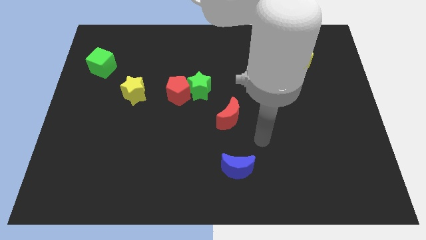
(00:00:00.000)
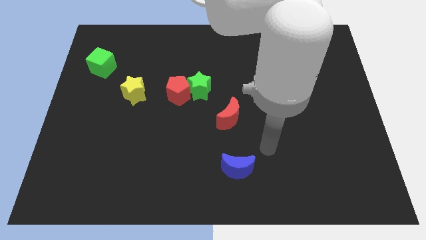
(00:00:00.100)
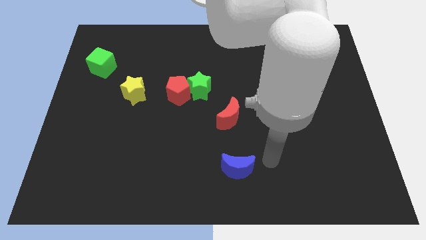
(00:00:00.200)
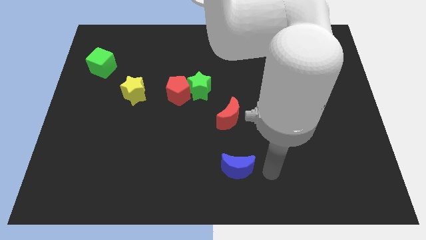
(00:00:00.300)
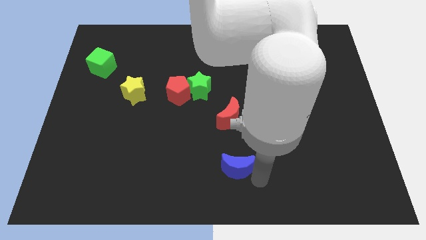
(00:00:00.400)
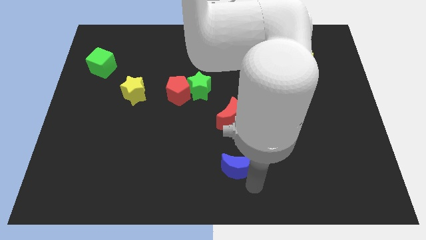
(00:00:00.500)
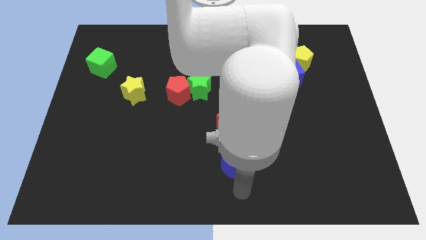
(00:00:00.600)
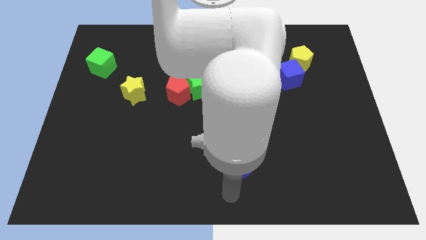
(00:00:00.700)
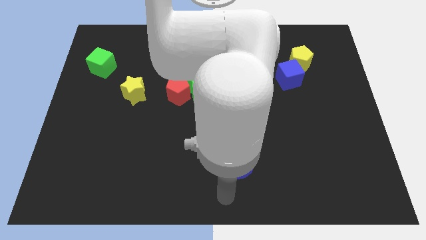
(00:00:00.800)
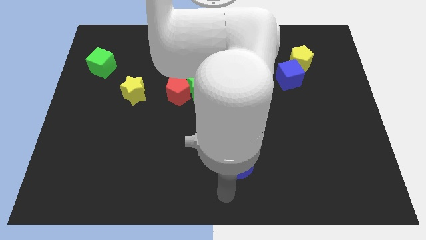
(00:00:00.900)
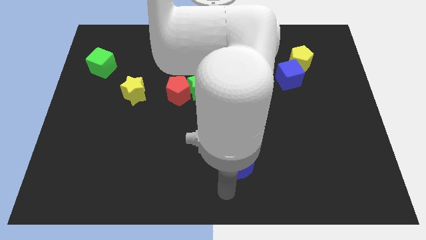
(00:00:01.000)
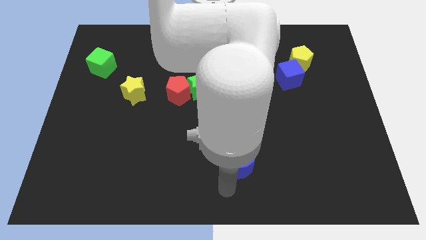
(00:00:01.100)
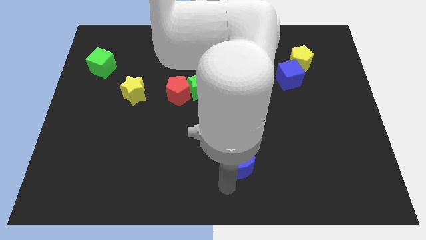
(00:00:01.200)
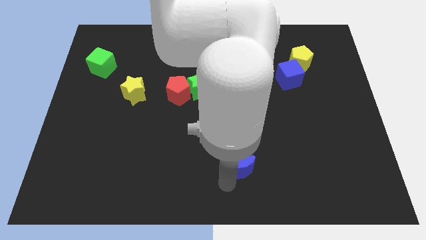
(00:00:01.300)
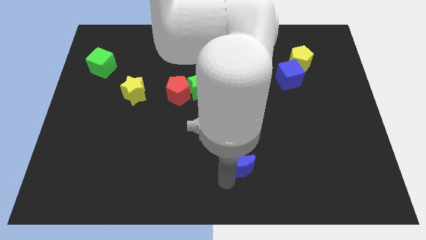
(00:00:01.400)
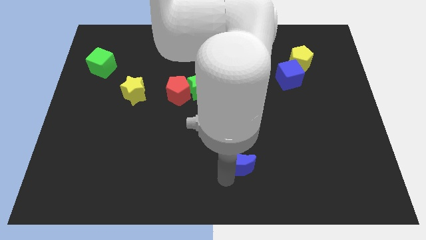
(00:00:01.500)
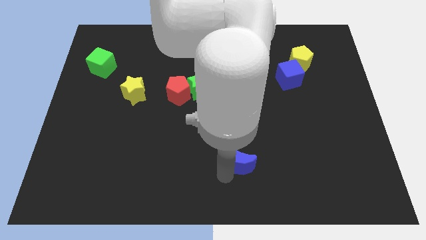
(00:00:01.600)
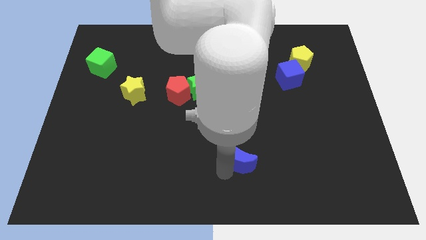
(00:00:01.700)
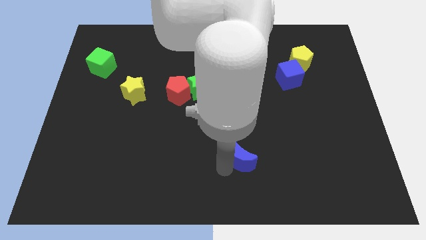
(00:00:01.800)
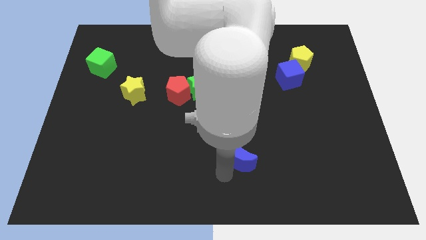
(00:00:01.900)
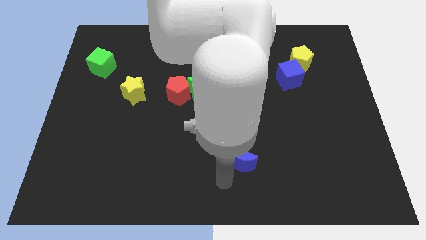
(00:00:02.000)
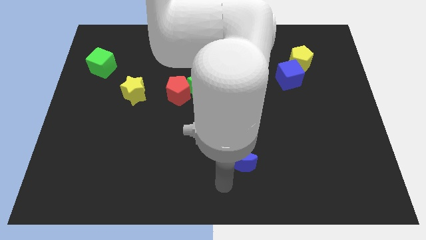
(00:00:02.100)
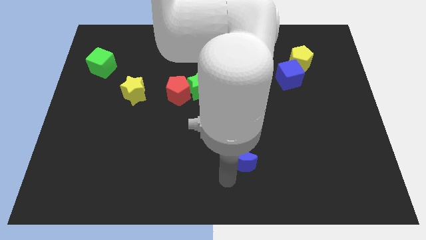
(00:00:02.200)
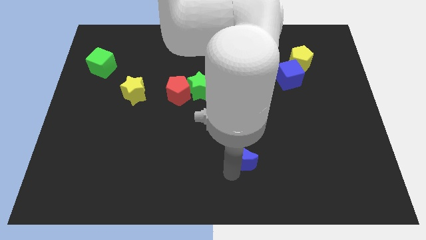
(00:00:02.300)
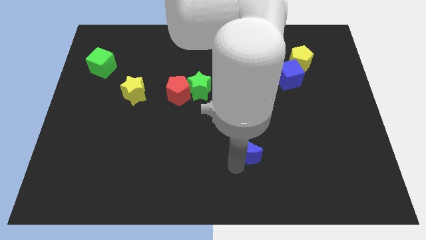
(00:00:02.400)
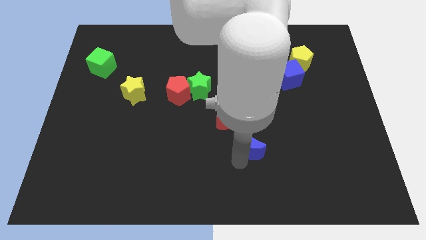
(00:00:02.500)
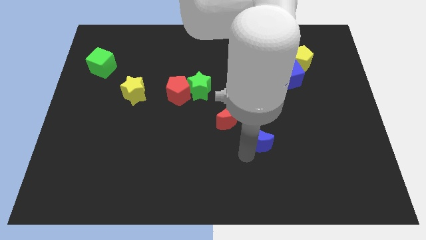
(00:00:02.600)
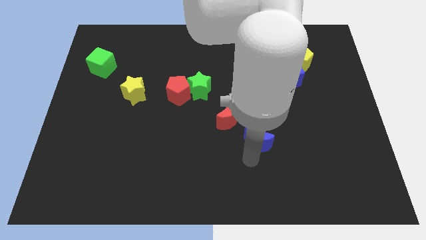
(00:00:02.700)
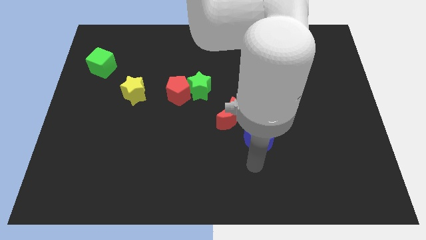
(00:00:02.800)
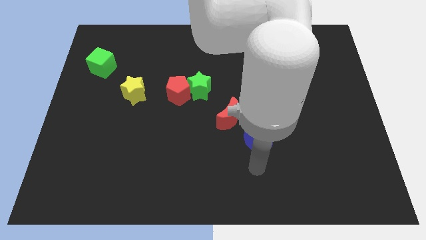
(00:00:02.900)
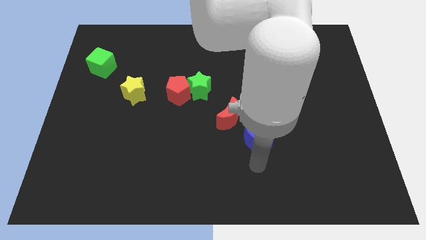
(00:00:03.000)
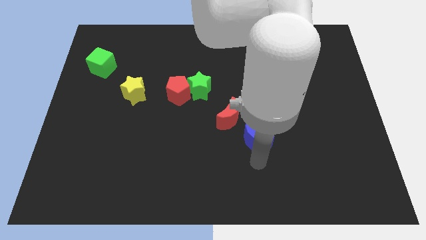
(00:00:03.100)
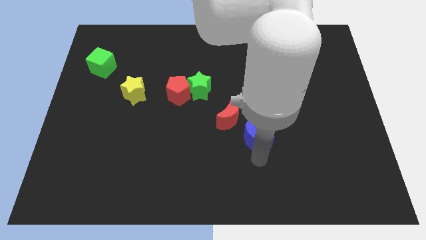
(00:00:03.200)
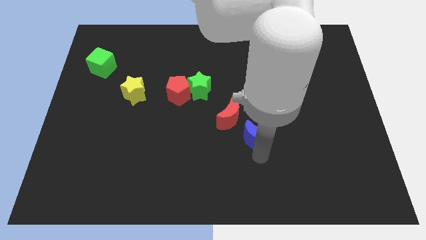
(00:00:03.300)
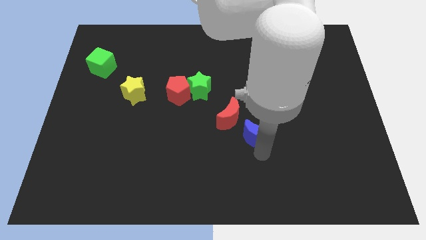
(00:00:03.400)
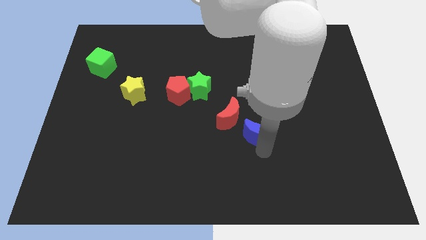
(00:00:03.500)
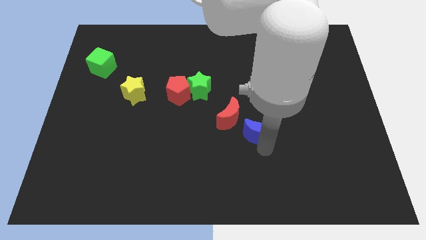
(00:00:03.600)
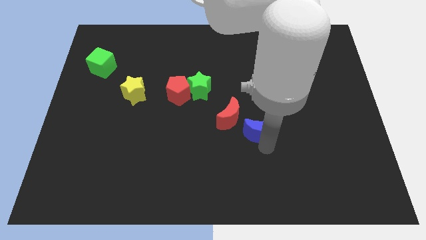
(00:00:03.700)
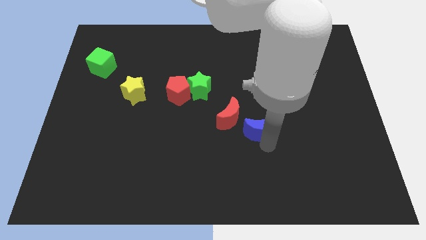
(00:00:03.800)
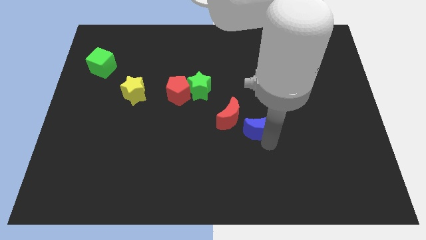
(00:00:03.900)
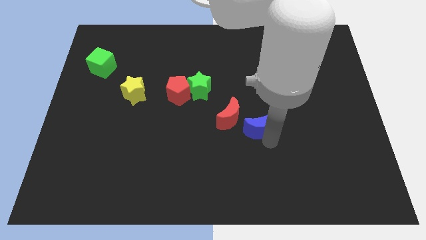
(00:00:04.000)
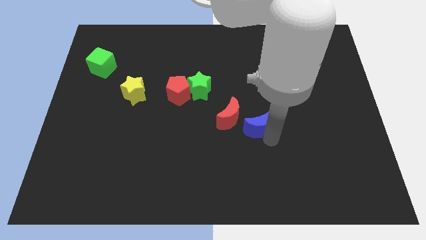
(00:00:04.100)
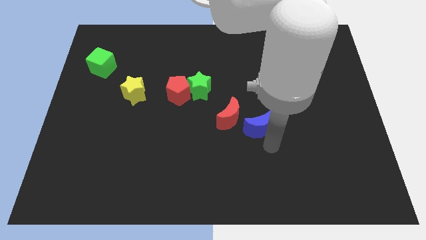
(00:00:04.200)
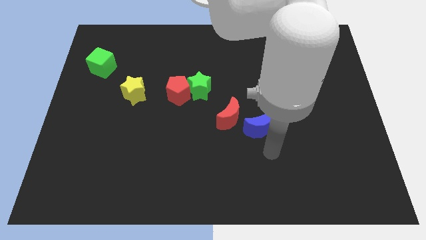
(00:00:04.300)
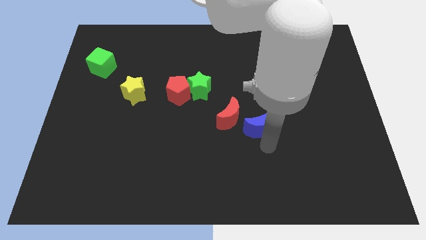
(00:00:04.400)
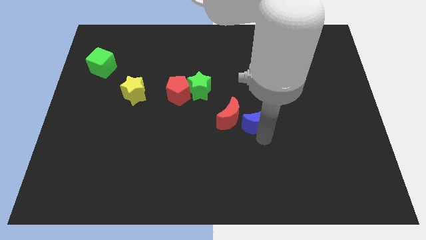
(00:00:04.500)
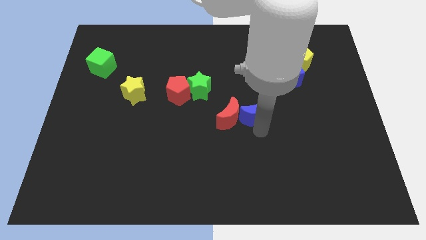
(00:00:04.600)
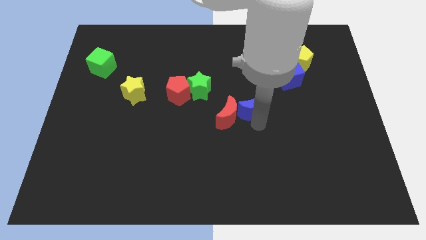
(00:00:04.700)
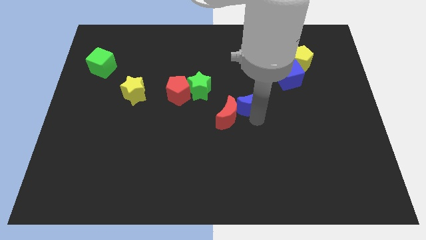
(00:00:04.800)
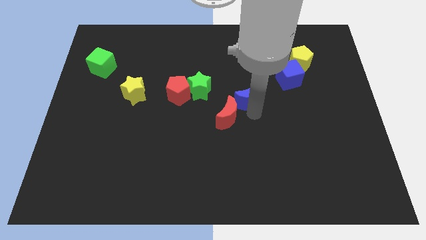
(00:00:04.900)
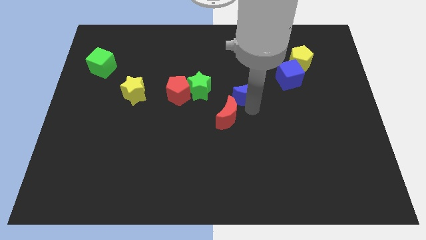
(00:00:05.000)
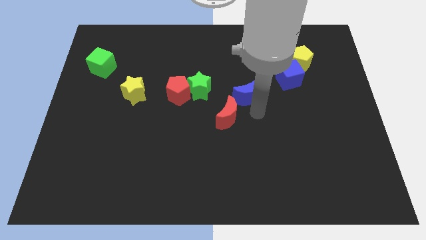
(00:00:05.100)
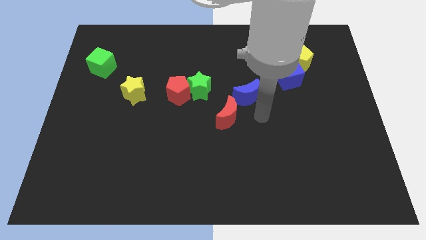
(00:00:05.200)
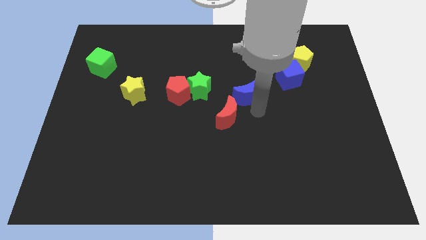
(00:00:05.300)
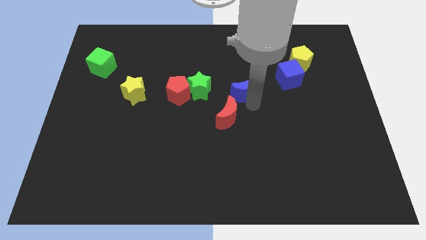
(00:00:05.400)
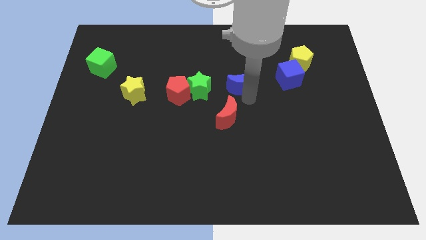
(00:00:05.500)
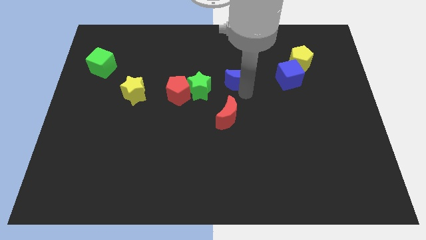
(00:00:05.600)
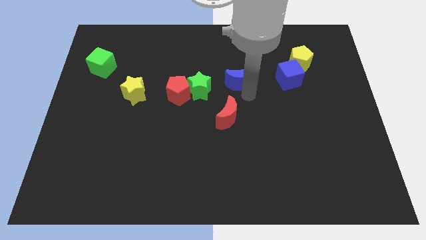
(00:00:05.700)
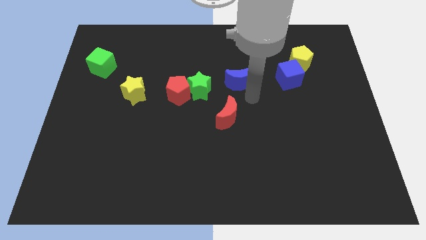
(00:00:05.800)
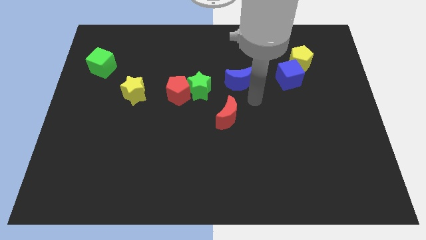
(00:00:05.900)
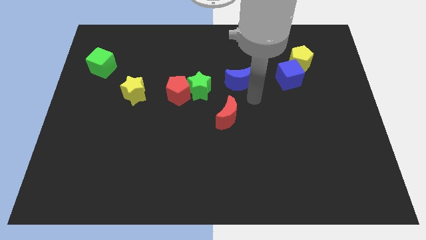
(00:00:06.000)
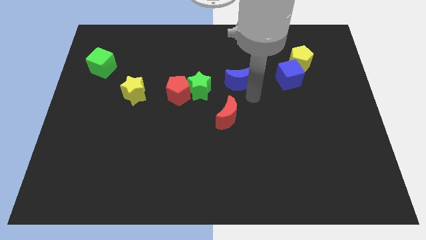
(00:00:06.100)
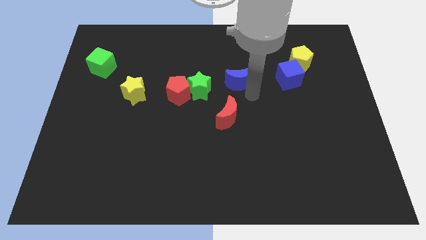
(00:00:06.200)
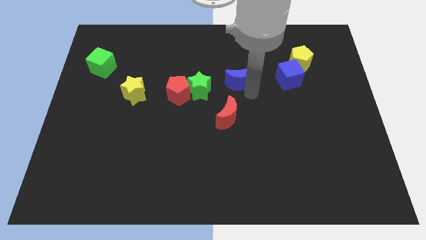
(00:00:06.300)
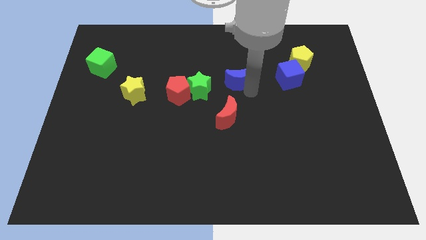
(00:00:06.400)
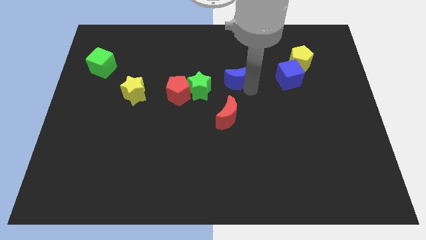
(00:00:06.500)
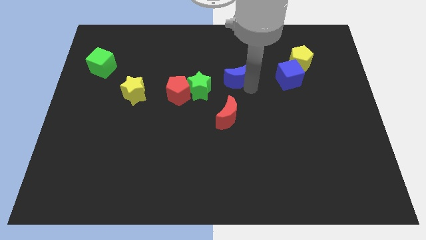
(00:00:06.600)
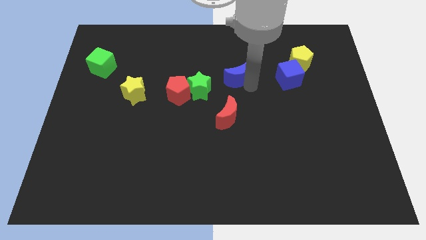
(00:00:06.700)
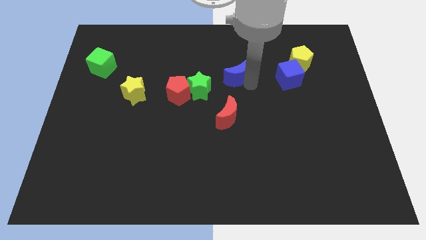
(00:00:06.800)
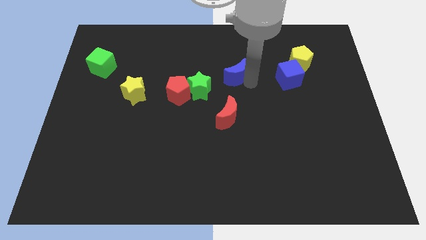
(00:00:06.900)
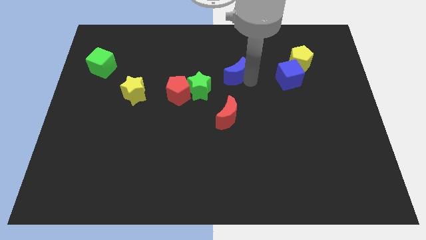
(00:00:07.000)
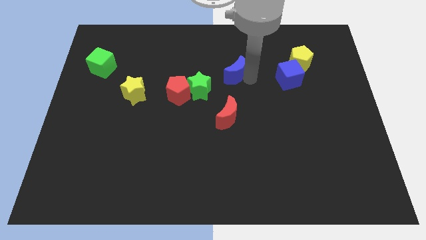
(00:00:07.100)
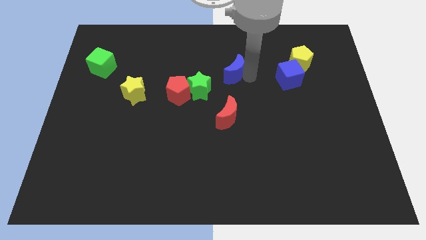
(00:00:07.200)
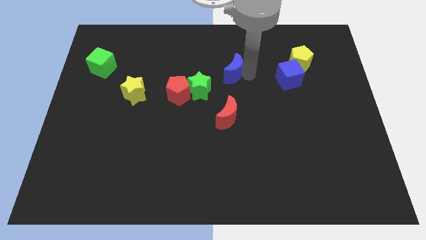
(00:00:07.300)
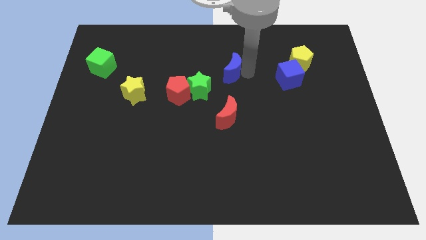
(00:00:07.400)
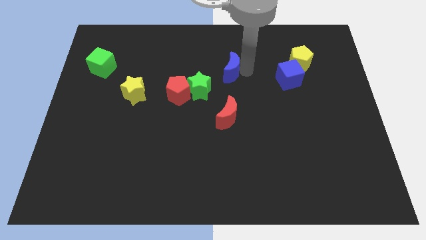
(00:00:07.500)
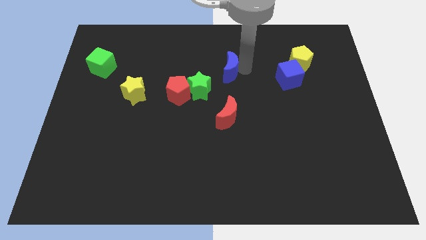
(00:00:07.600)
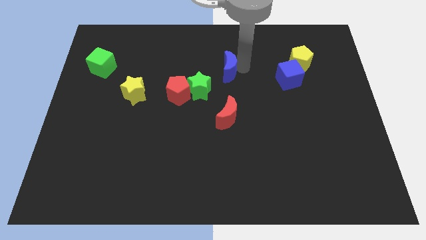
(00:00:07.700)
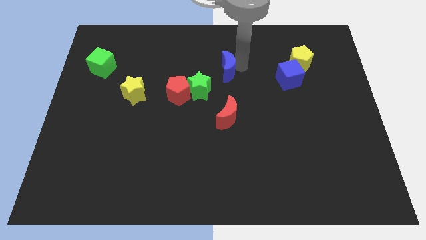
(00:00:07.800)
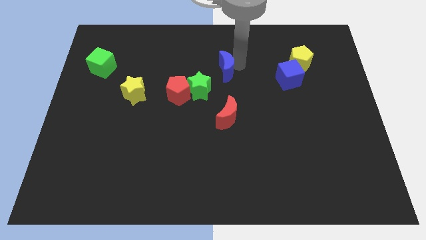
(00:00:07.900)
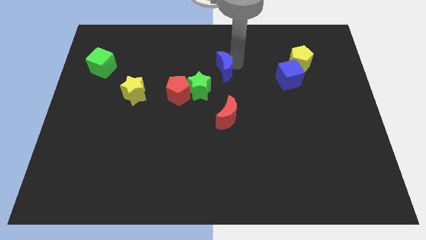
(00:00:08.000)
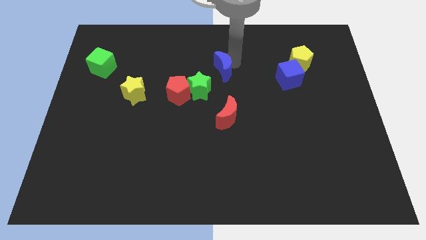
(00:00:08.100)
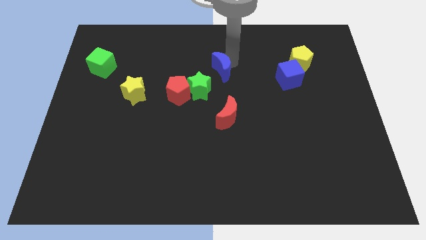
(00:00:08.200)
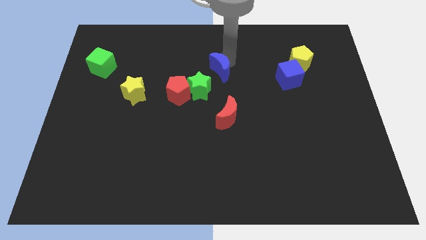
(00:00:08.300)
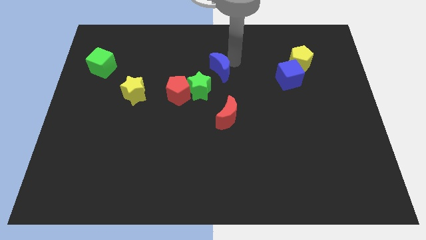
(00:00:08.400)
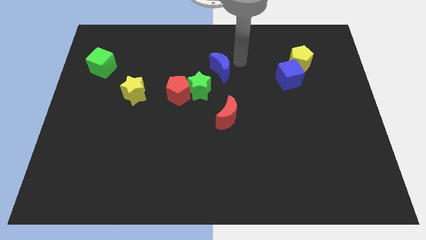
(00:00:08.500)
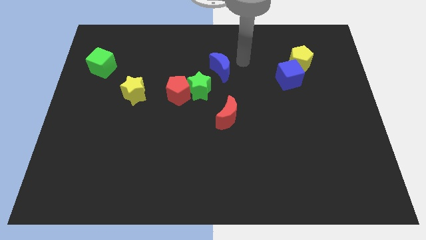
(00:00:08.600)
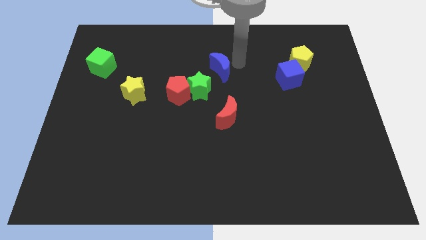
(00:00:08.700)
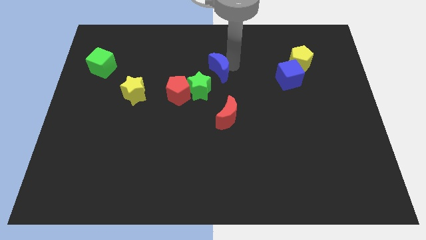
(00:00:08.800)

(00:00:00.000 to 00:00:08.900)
put the blue moon to the top right side of the red pentagon
